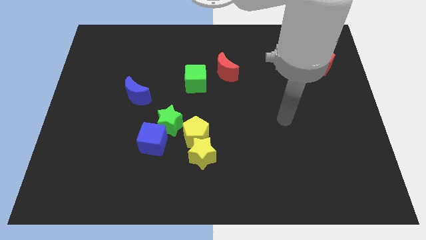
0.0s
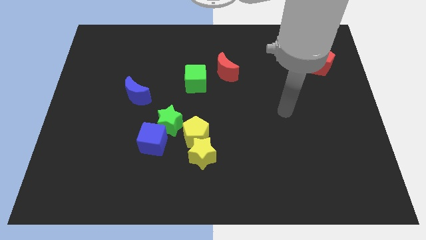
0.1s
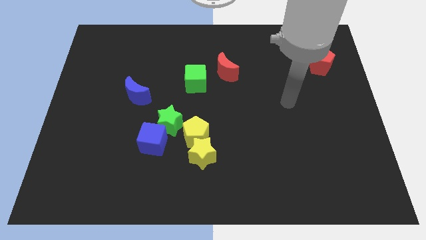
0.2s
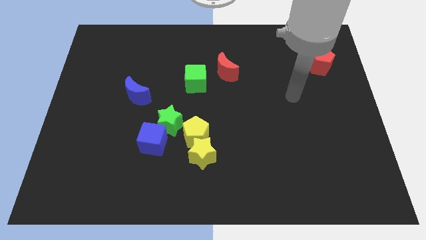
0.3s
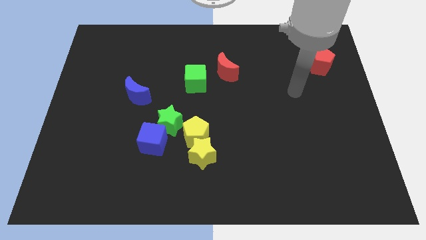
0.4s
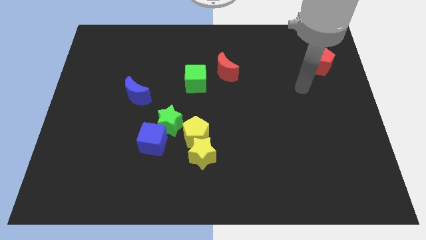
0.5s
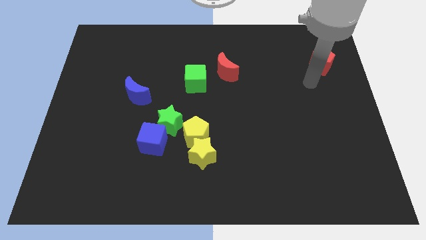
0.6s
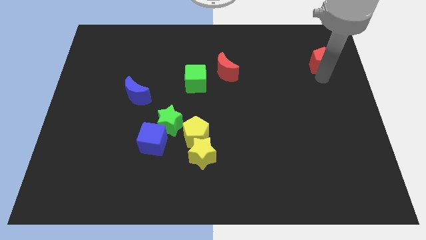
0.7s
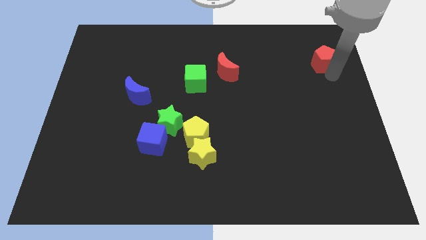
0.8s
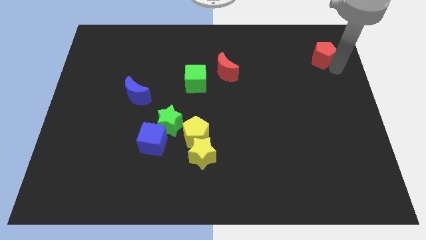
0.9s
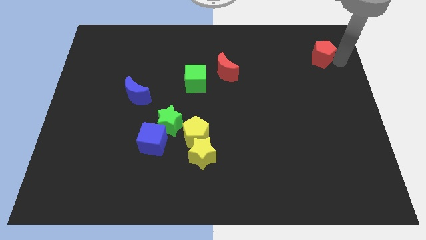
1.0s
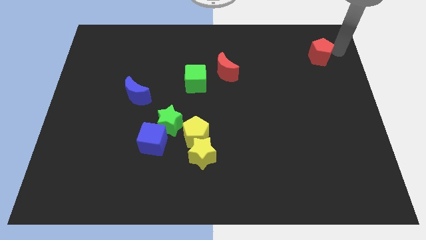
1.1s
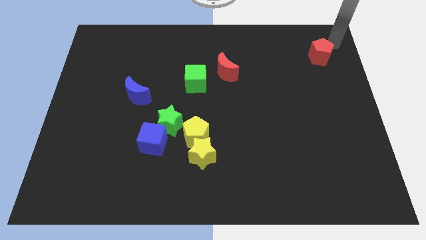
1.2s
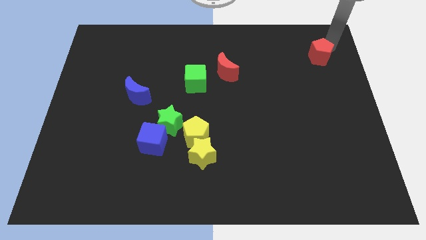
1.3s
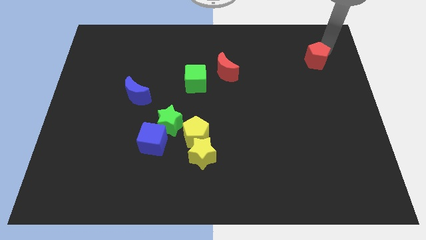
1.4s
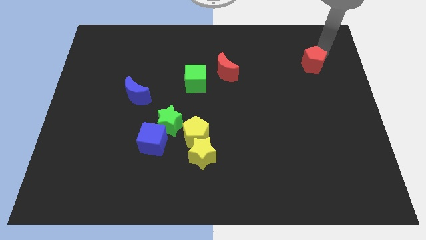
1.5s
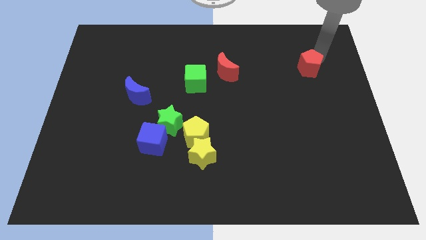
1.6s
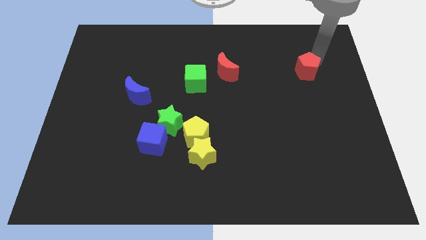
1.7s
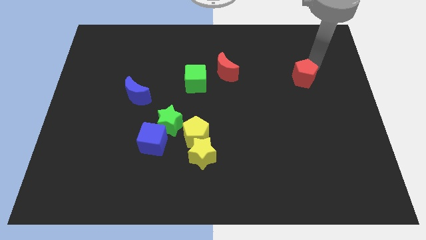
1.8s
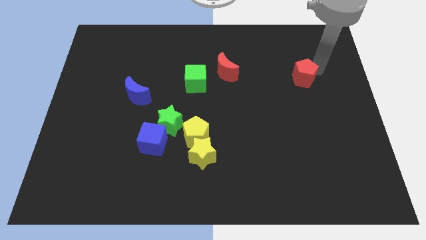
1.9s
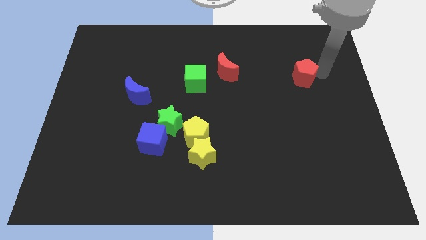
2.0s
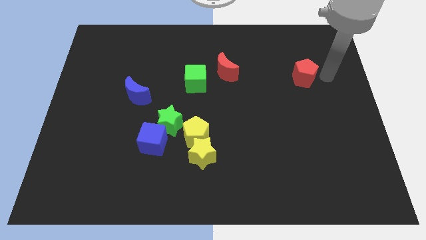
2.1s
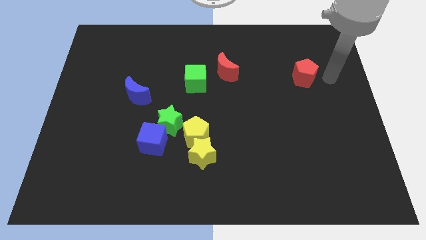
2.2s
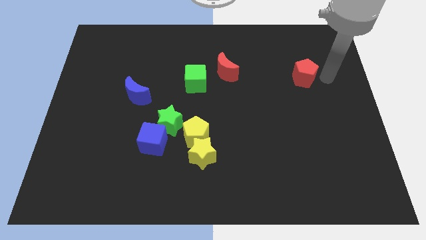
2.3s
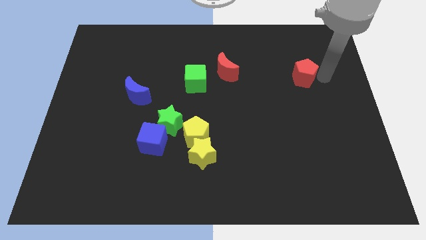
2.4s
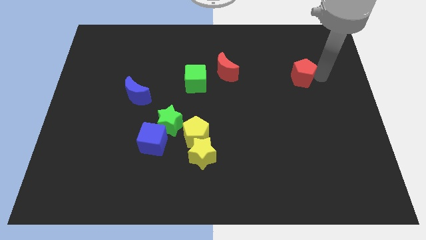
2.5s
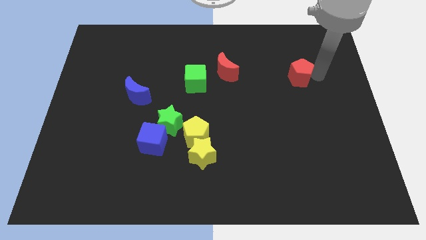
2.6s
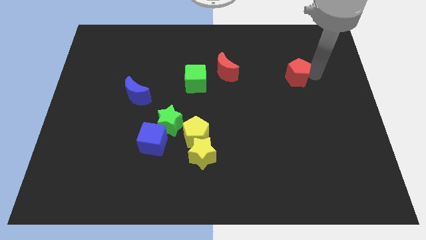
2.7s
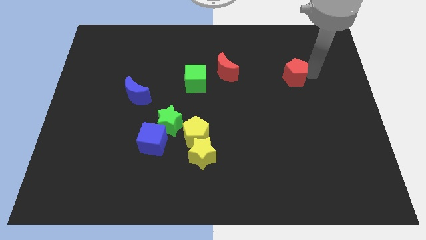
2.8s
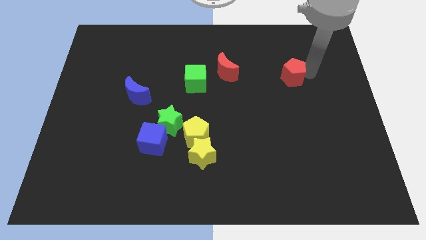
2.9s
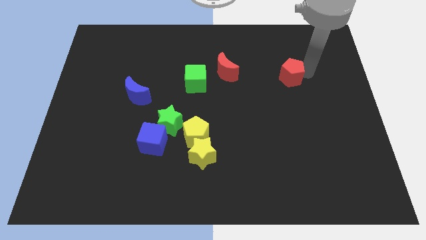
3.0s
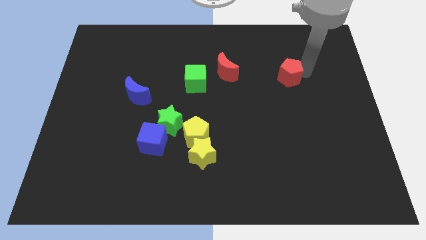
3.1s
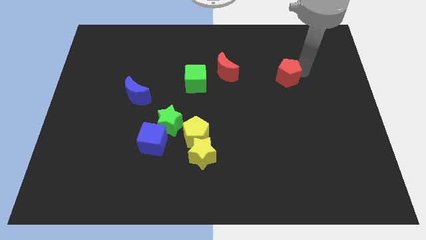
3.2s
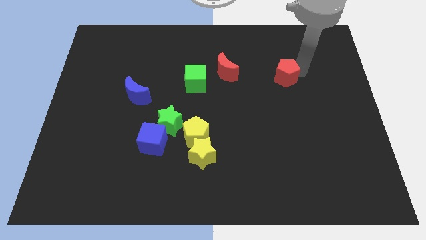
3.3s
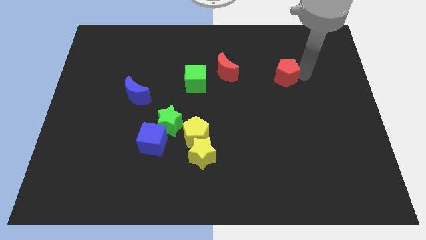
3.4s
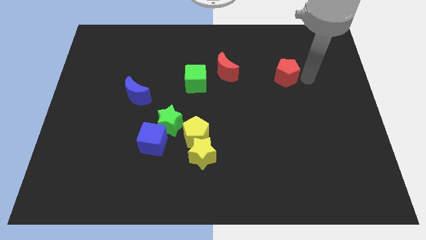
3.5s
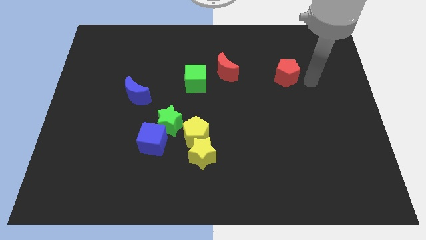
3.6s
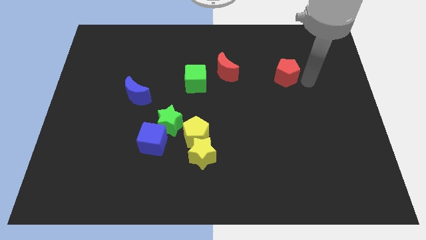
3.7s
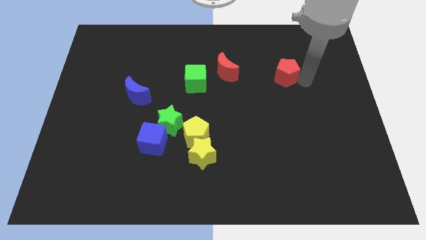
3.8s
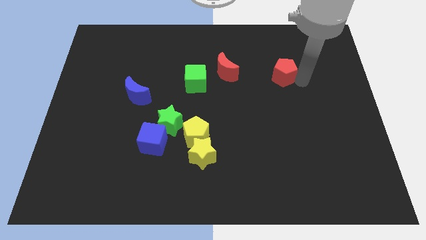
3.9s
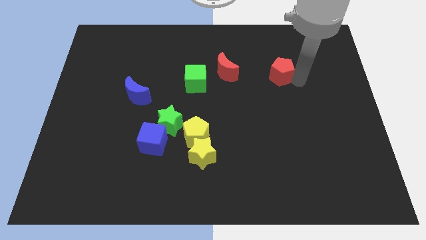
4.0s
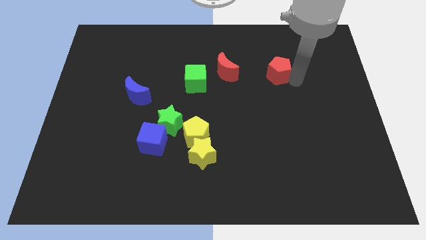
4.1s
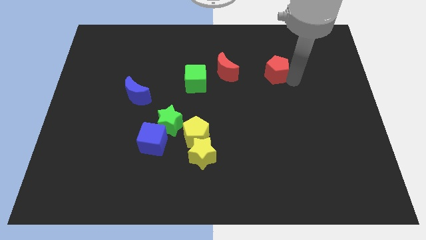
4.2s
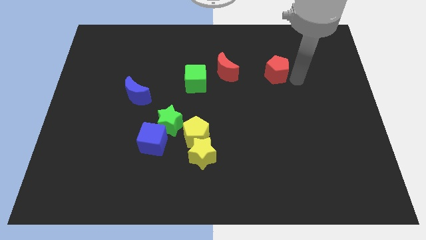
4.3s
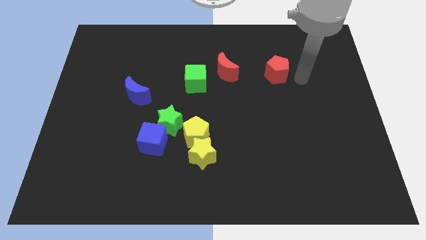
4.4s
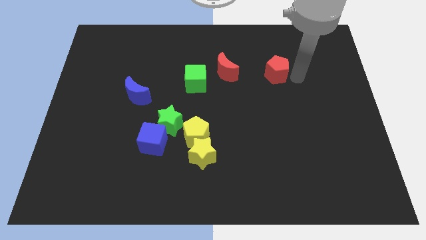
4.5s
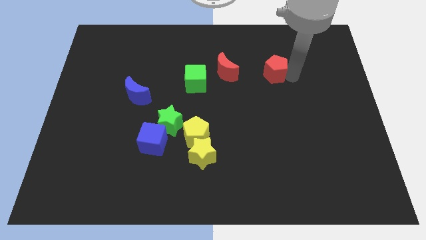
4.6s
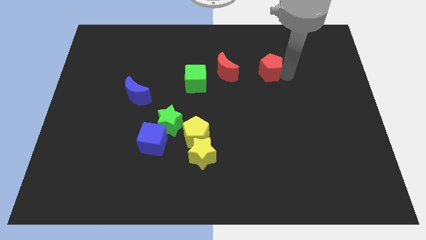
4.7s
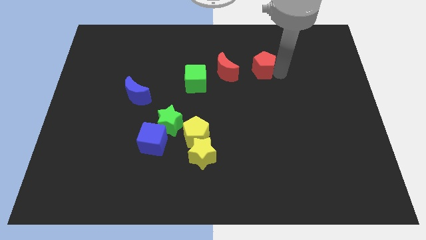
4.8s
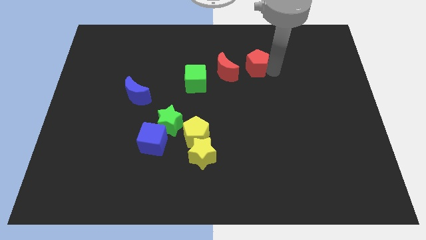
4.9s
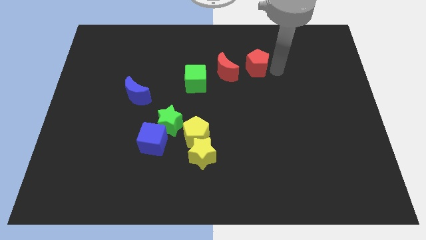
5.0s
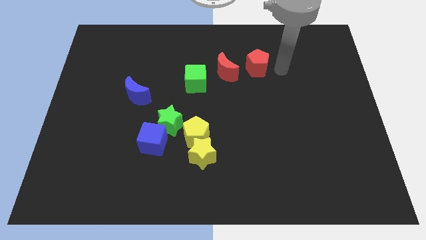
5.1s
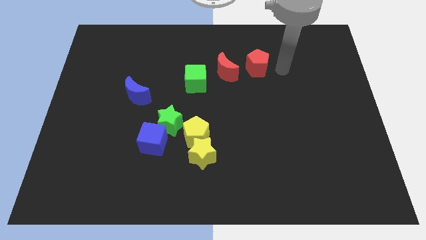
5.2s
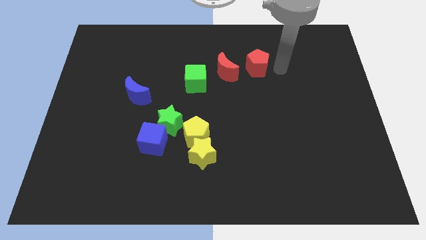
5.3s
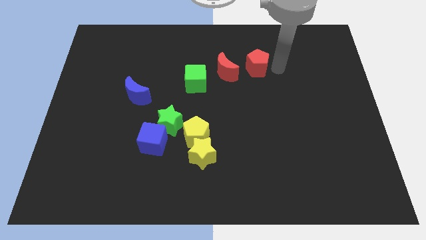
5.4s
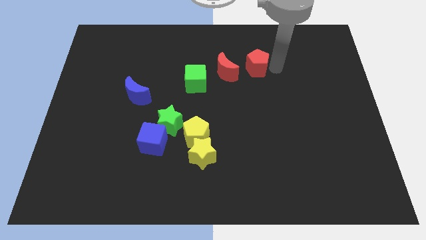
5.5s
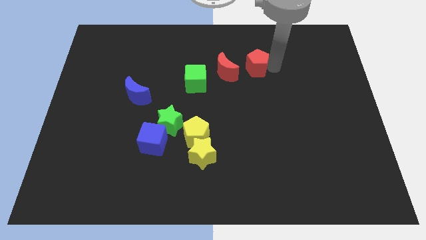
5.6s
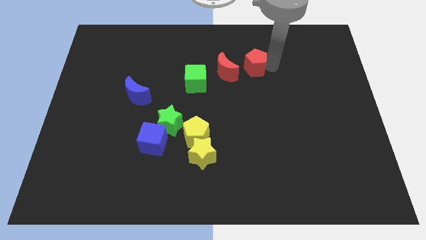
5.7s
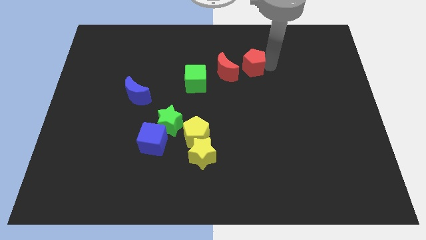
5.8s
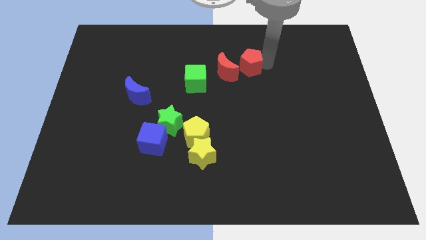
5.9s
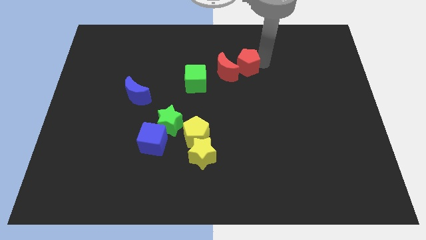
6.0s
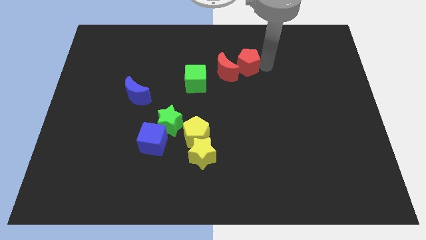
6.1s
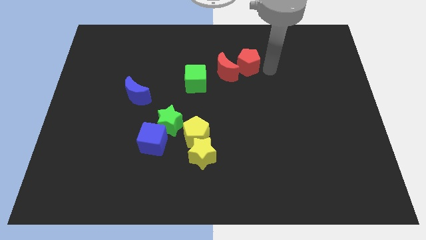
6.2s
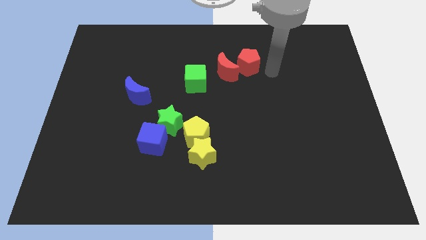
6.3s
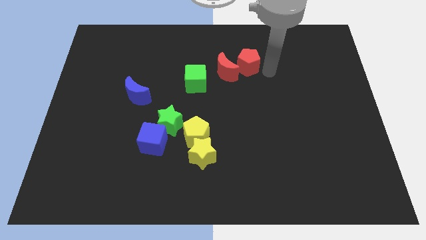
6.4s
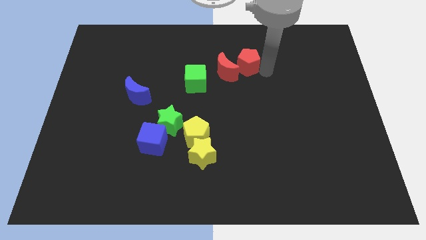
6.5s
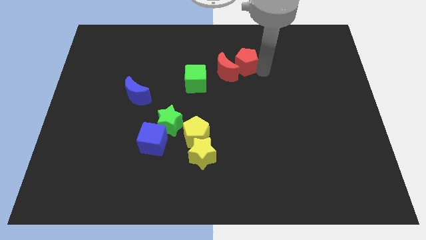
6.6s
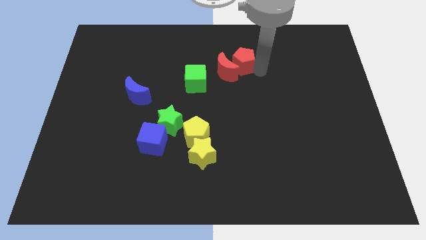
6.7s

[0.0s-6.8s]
push the red pentagon left

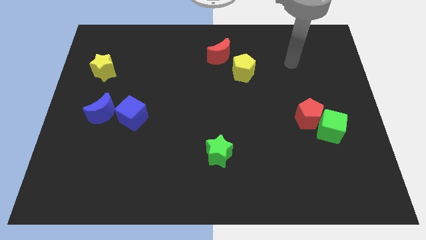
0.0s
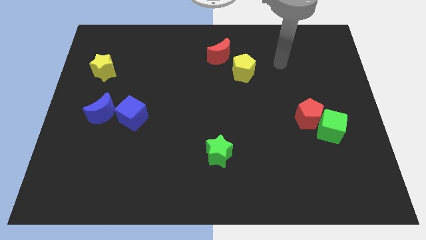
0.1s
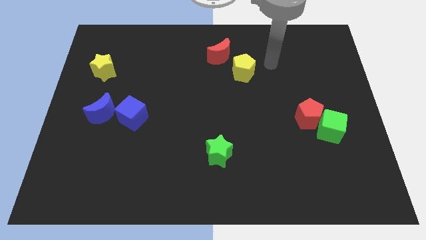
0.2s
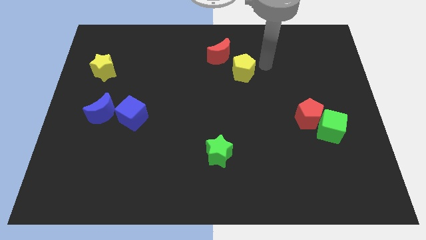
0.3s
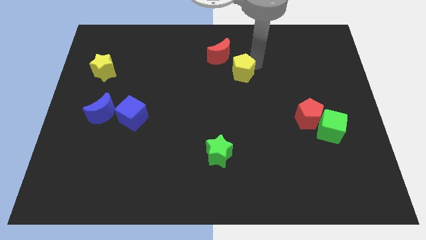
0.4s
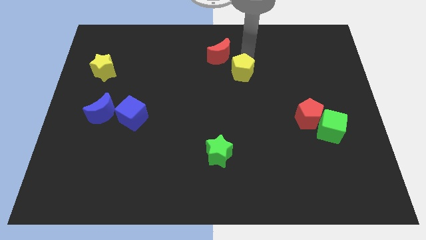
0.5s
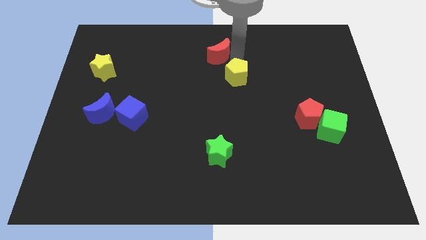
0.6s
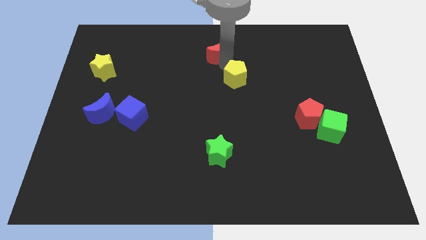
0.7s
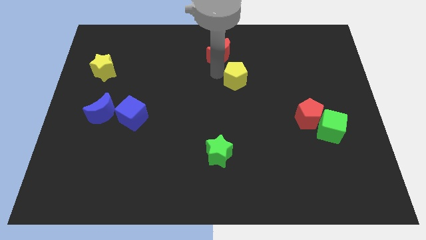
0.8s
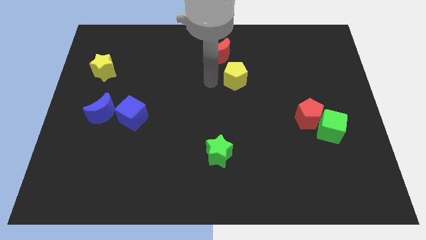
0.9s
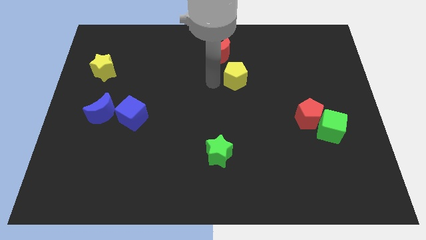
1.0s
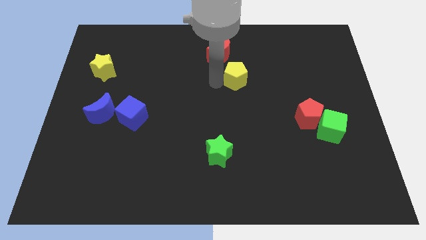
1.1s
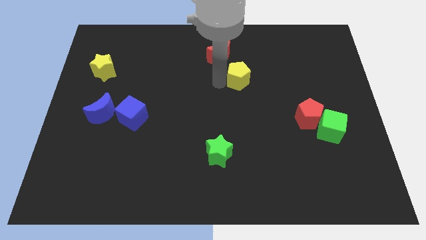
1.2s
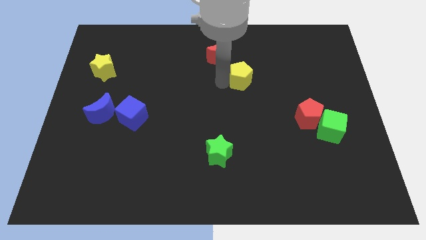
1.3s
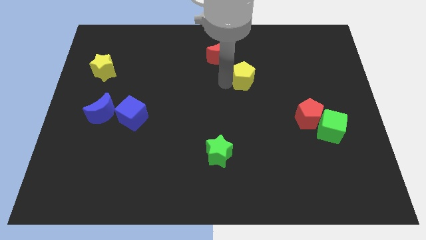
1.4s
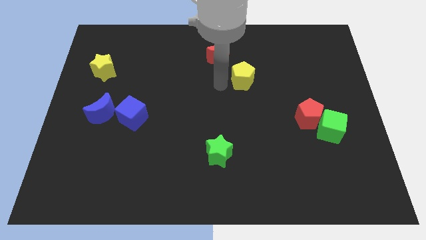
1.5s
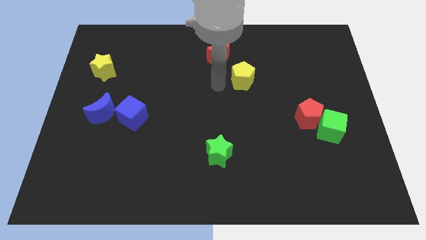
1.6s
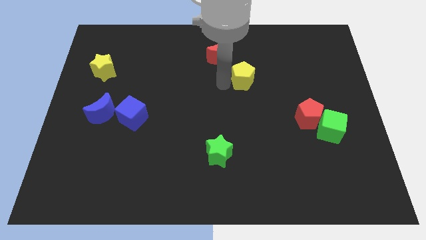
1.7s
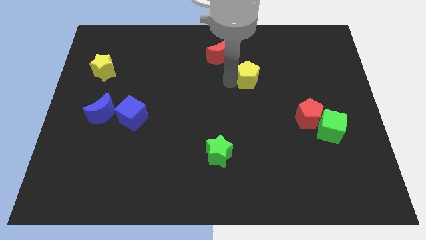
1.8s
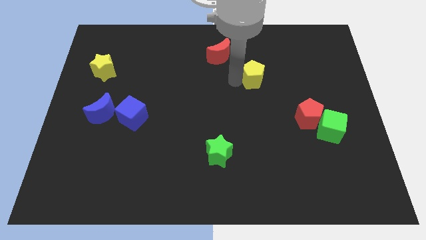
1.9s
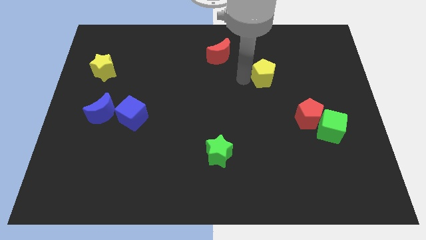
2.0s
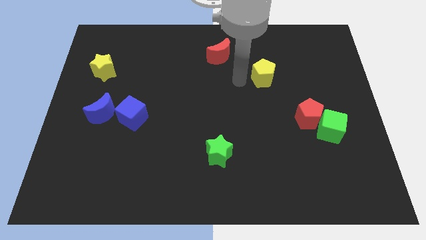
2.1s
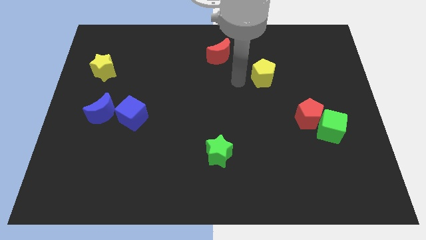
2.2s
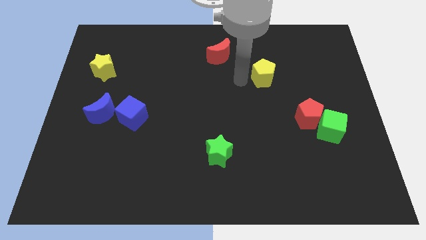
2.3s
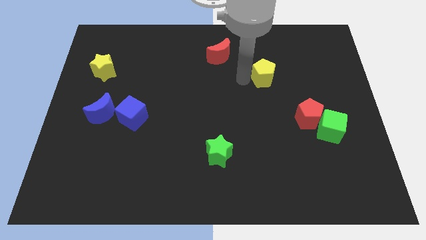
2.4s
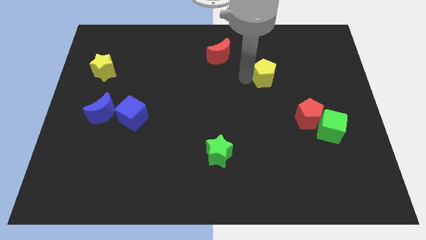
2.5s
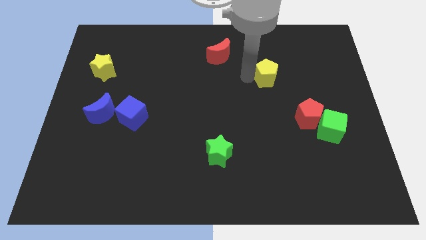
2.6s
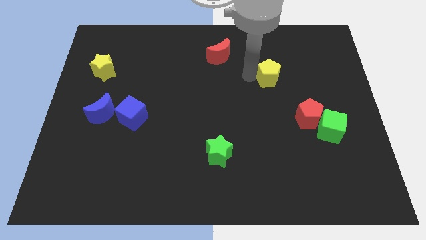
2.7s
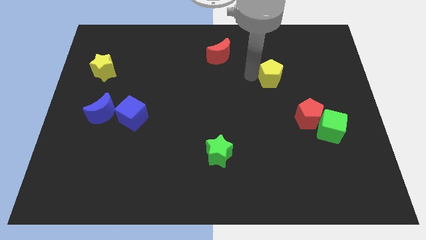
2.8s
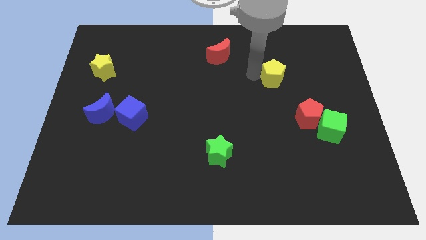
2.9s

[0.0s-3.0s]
slide the yellow pentagon slightly to the right
